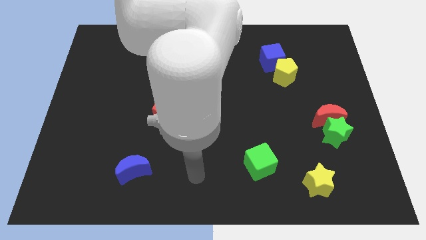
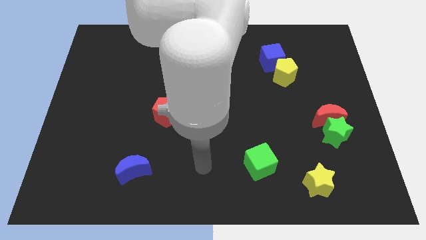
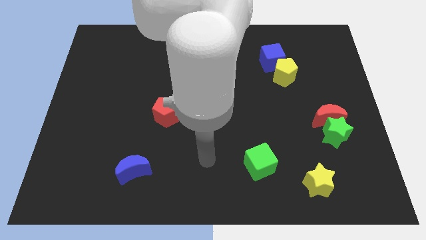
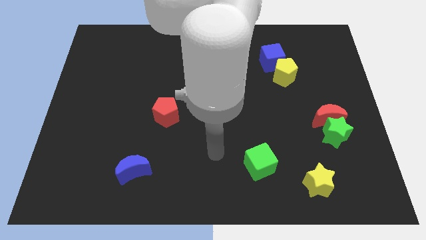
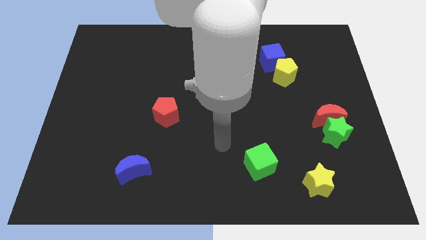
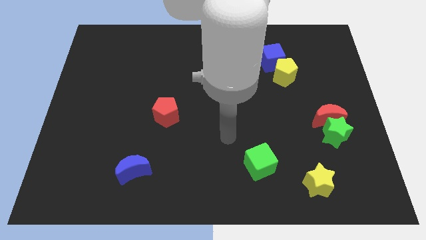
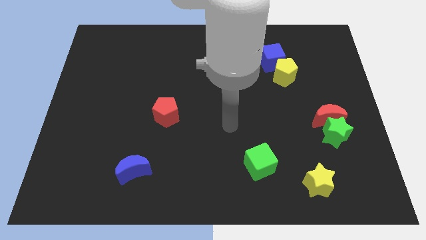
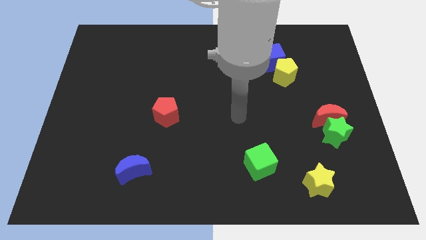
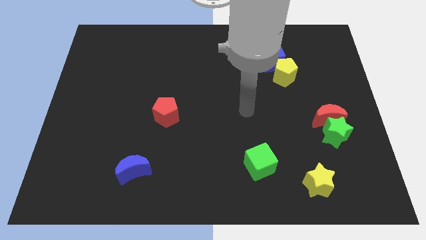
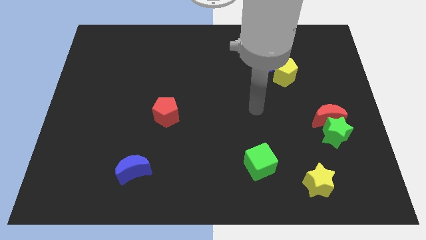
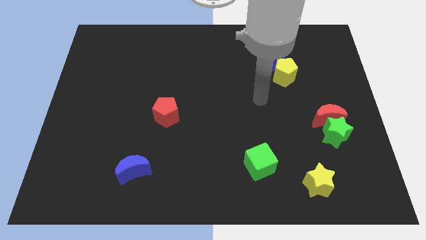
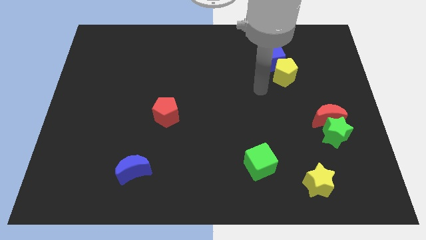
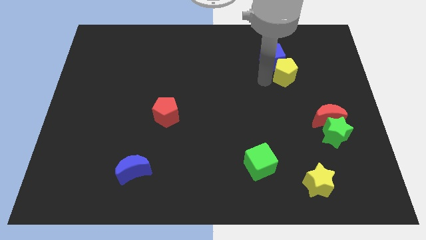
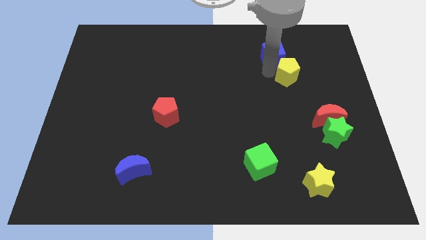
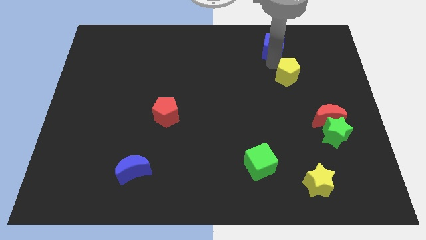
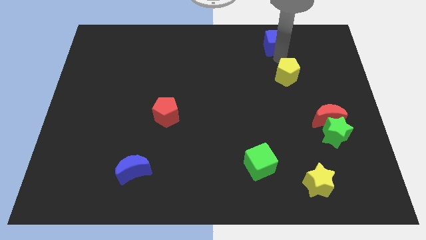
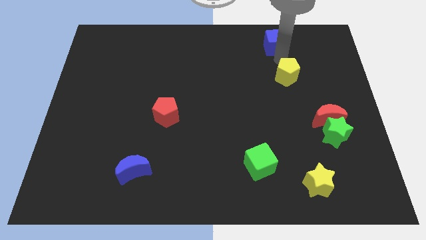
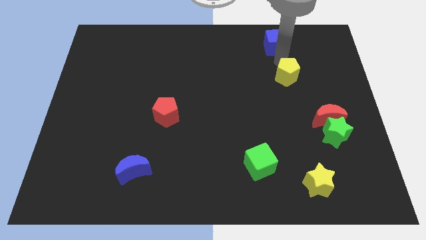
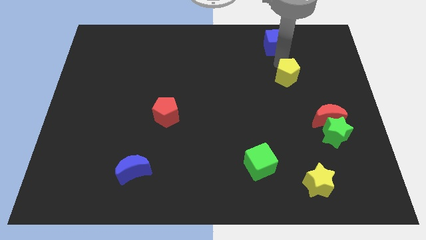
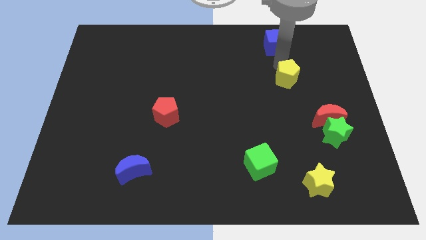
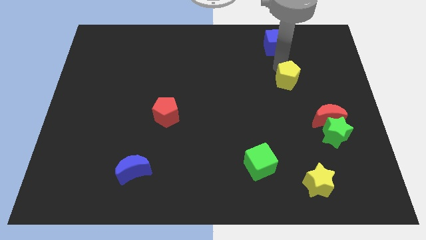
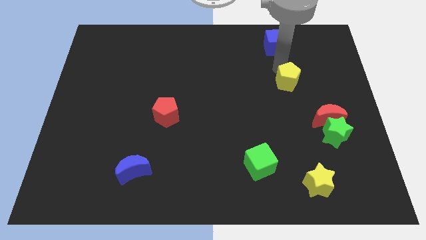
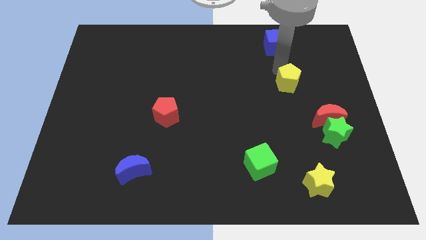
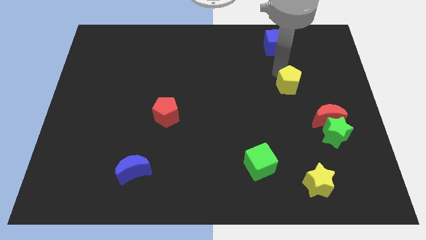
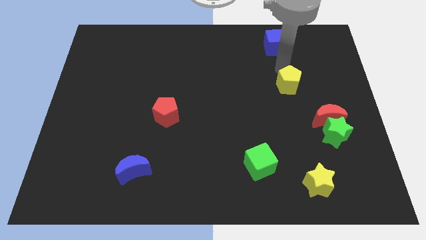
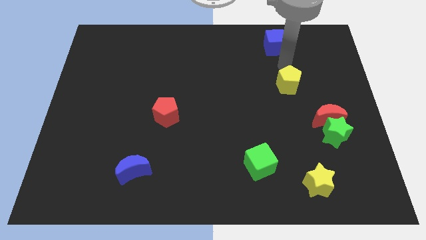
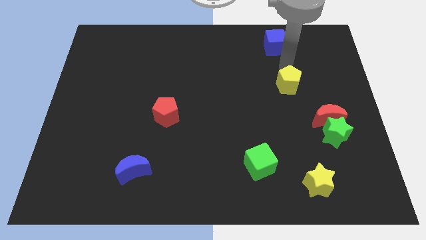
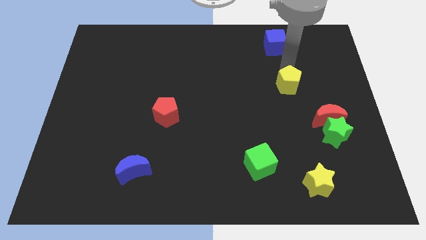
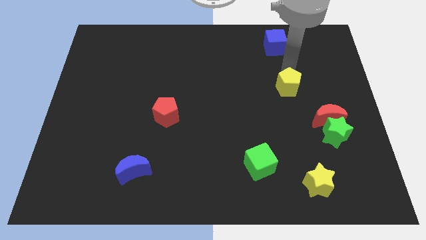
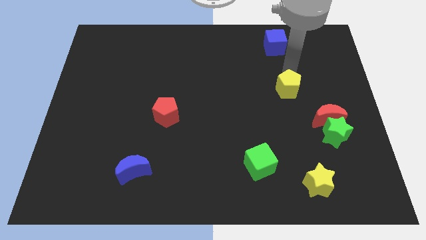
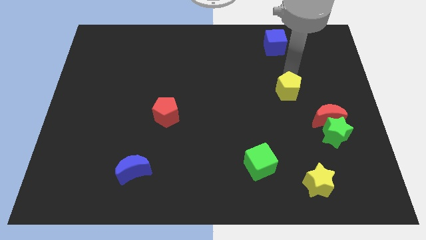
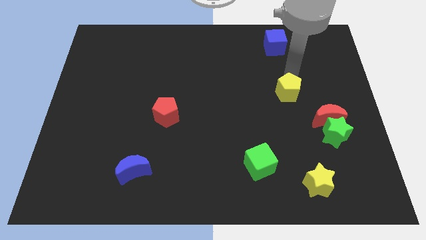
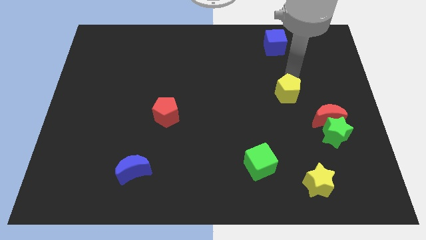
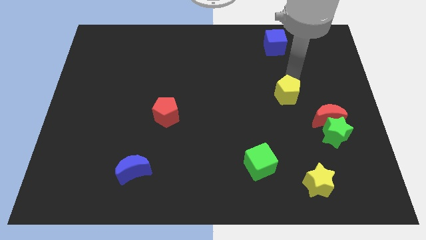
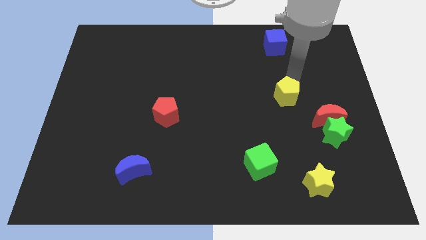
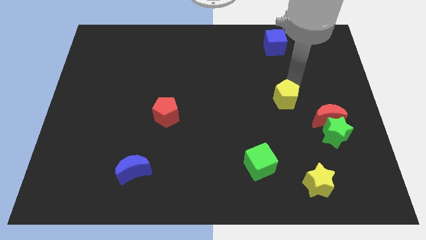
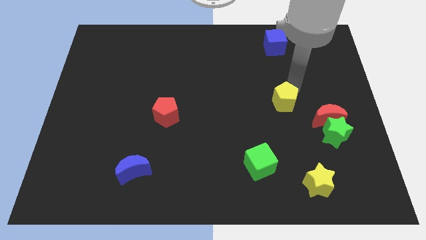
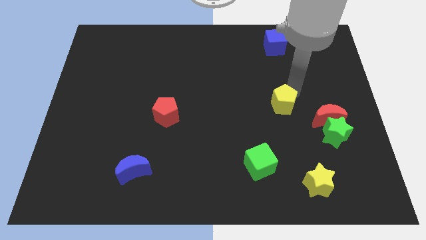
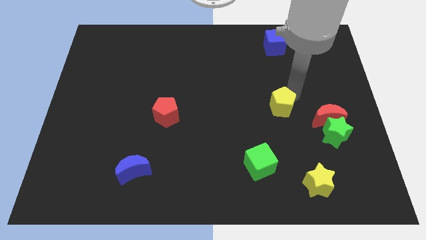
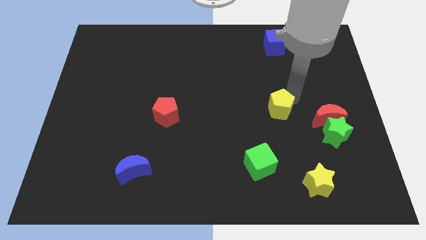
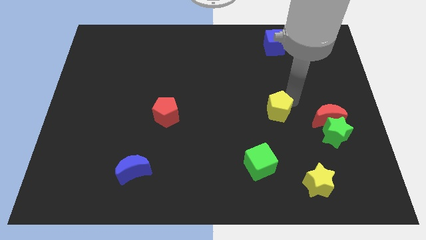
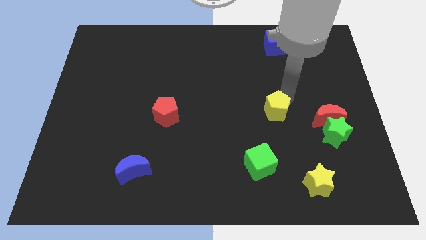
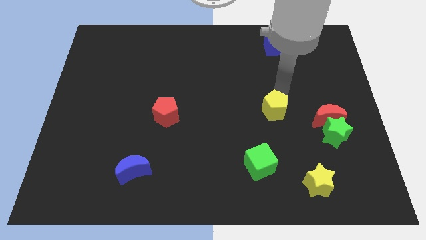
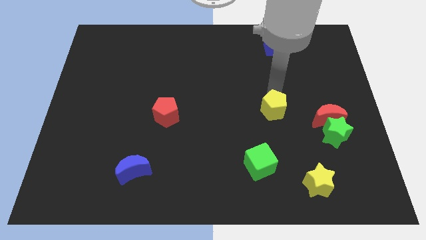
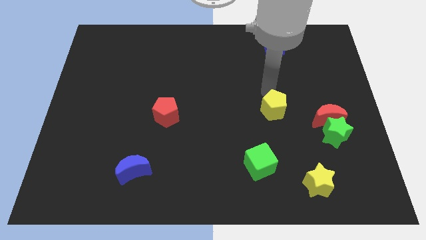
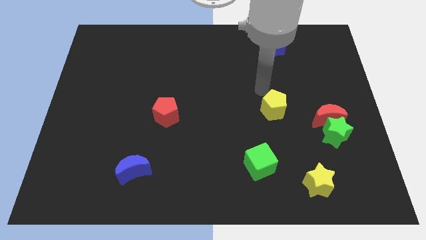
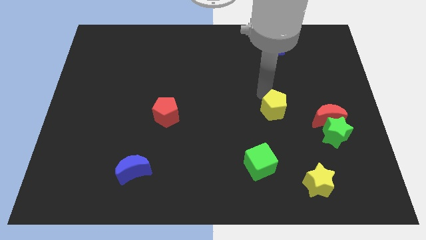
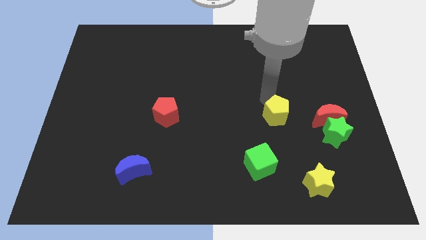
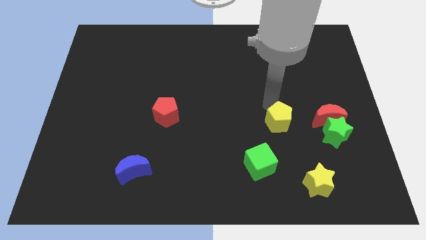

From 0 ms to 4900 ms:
slide the yellow pentagon left of the green star

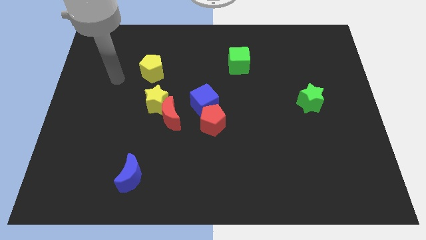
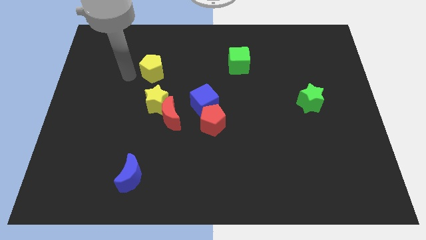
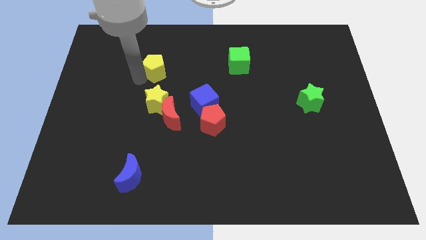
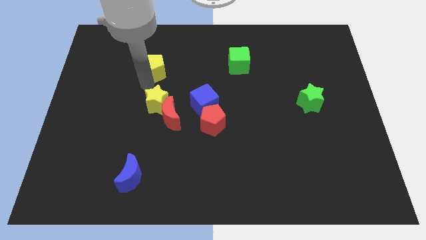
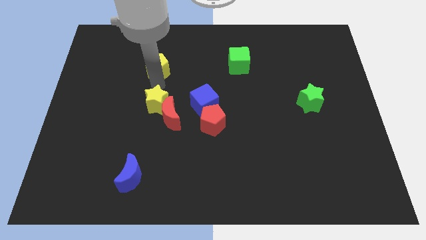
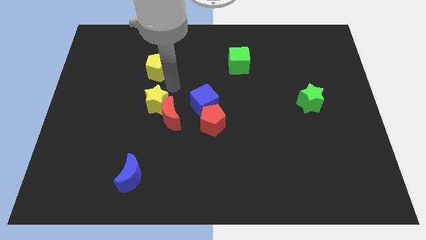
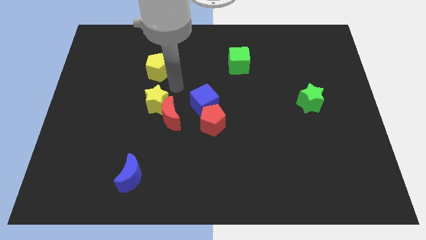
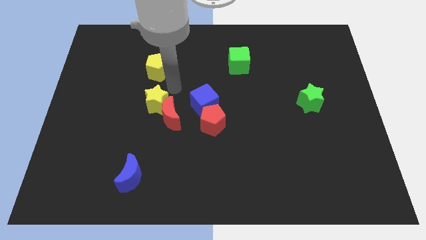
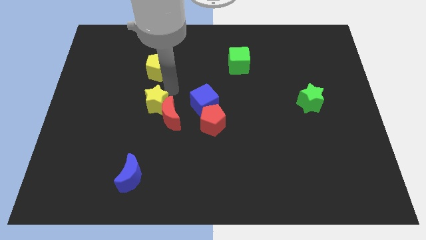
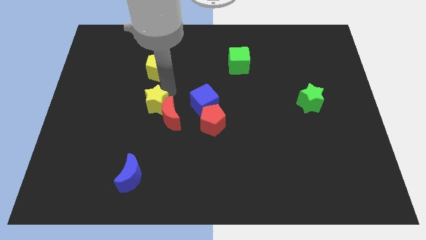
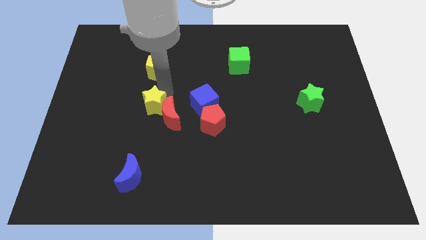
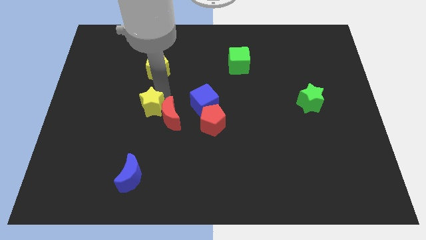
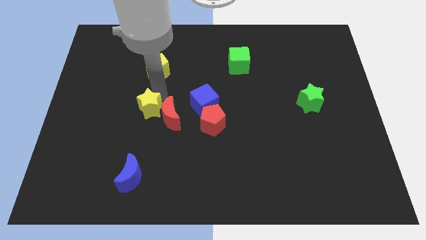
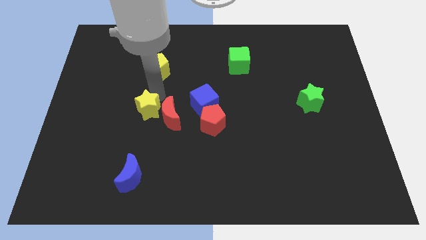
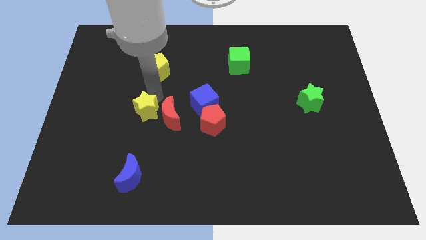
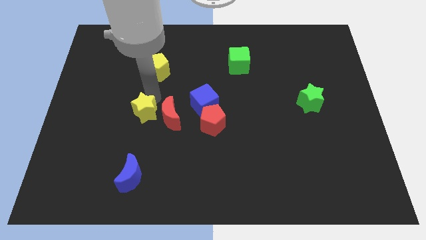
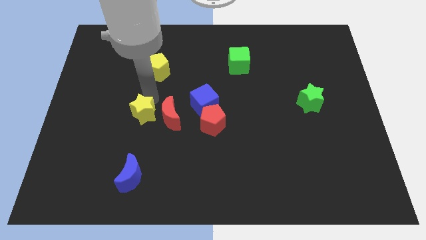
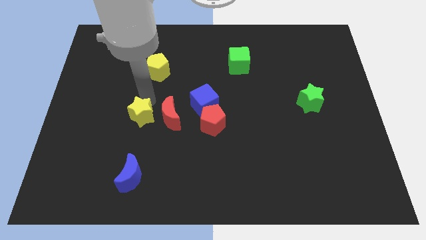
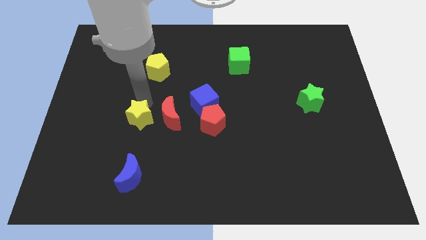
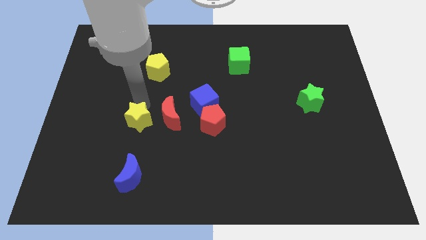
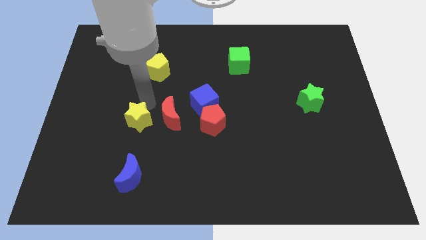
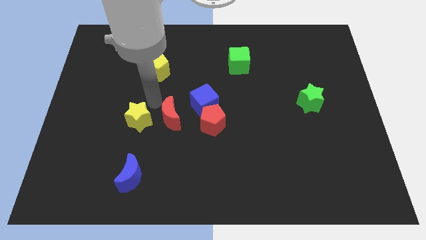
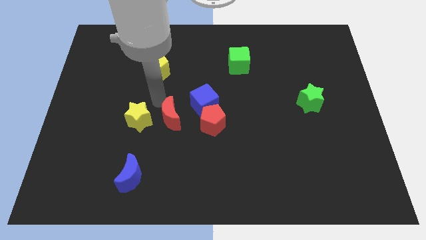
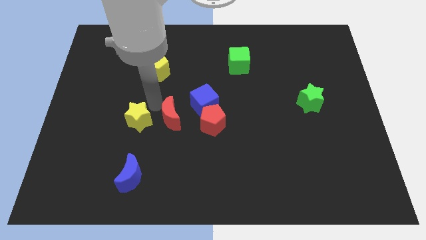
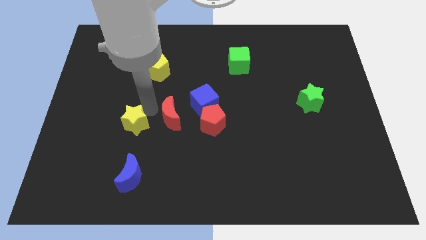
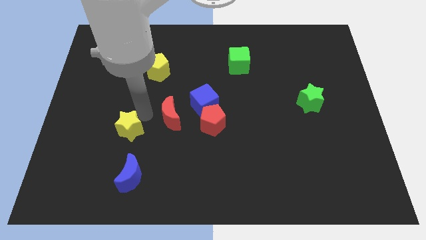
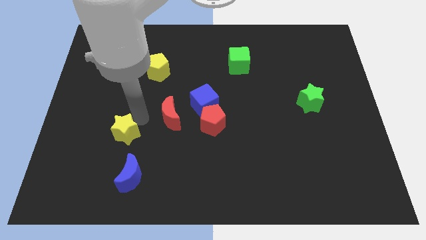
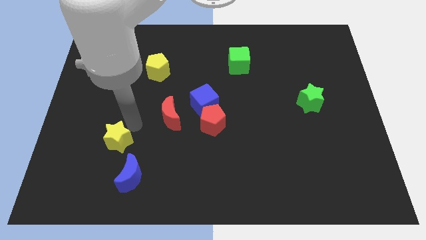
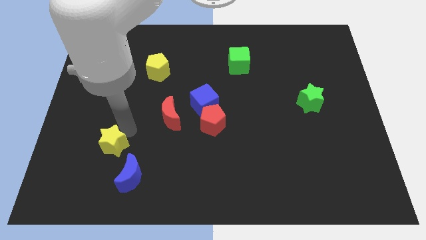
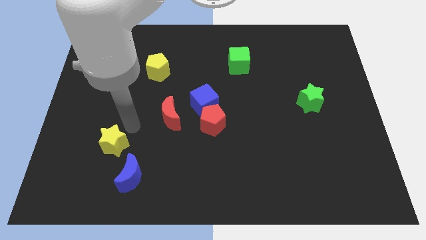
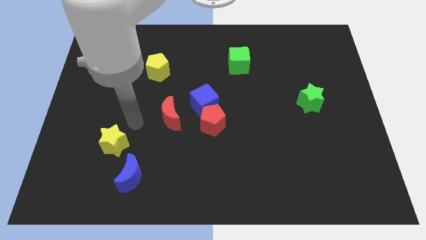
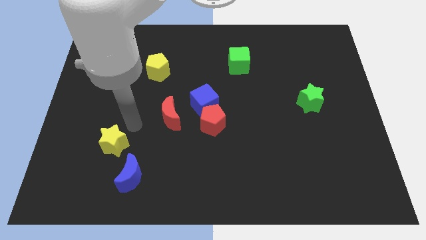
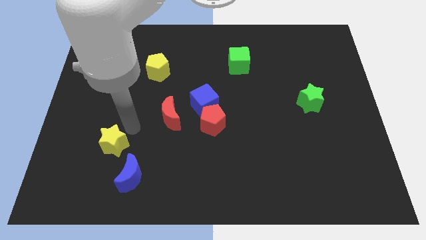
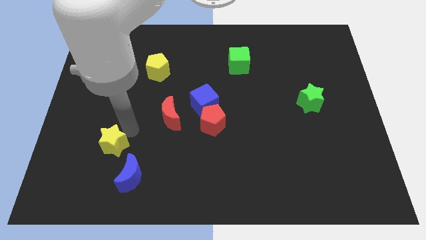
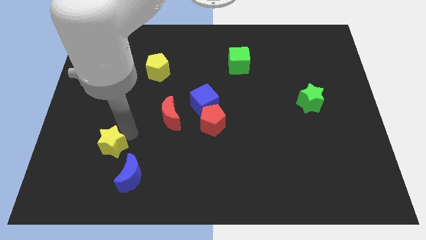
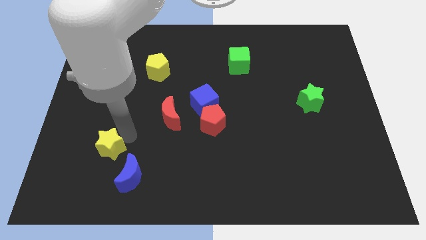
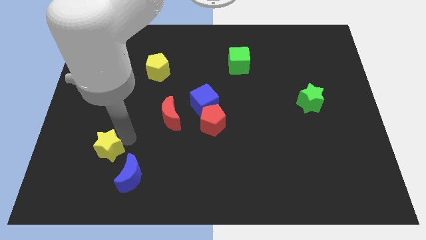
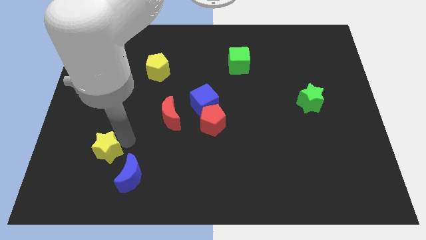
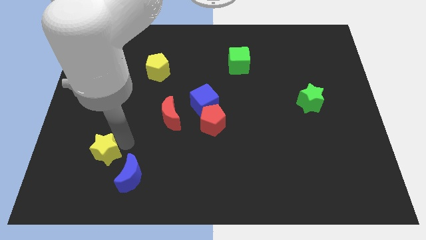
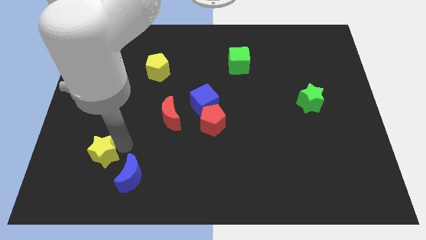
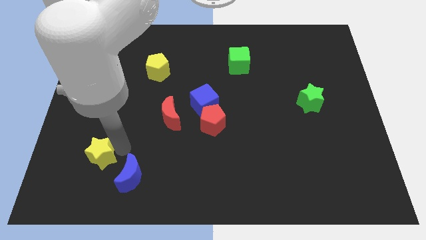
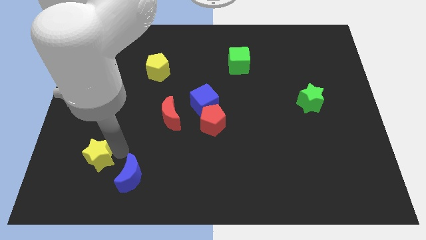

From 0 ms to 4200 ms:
move the yellow star left of the blue moon
